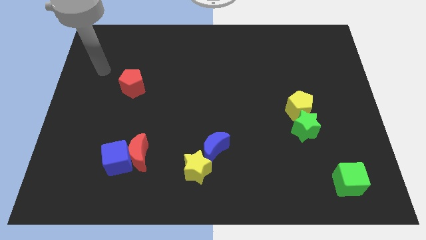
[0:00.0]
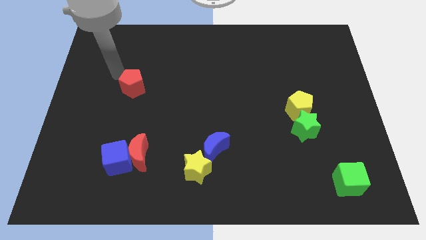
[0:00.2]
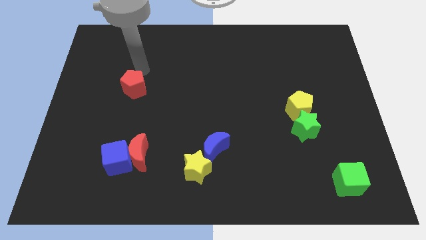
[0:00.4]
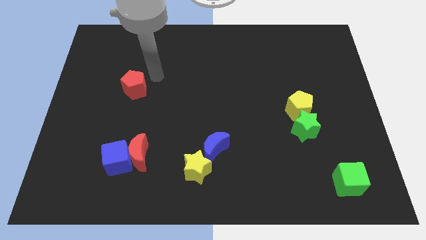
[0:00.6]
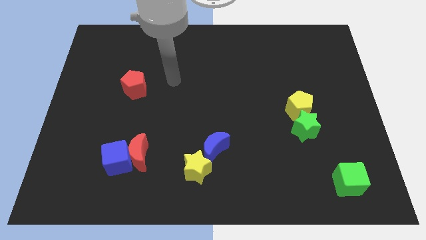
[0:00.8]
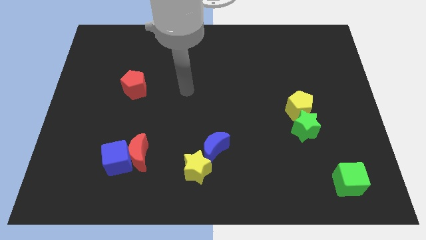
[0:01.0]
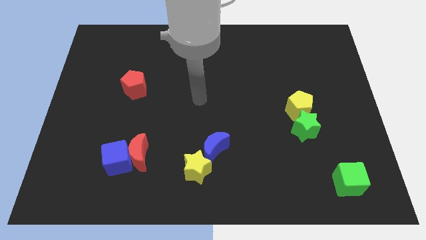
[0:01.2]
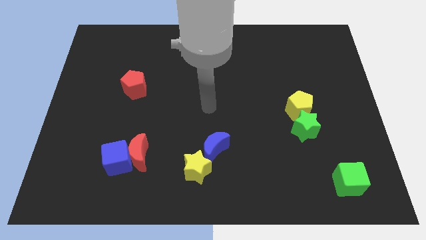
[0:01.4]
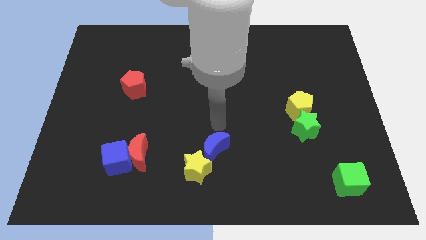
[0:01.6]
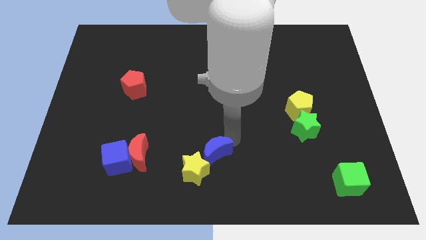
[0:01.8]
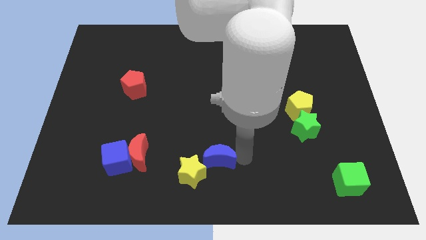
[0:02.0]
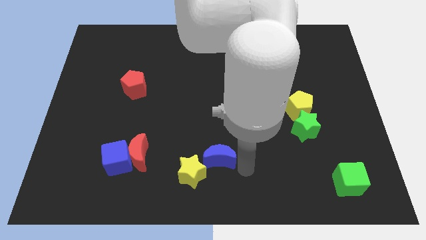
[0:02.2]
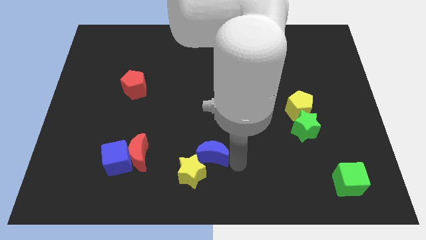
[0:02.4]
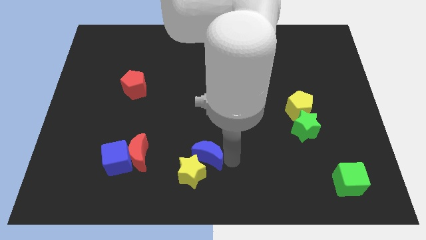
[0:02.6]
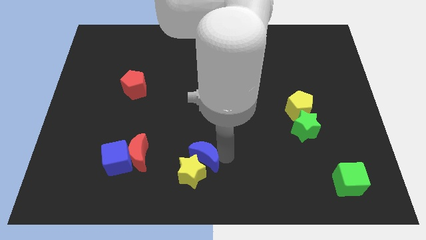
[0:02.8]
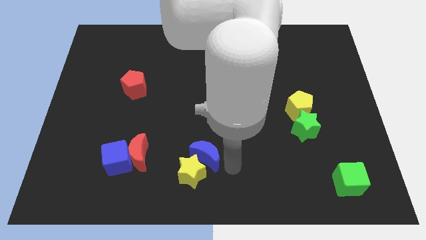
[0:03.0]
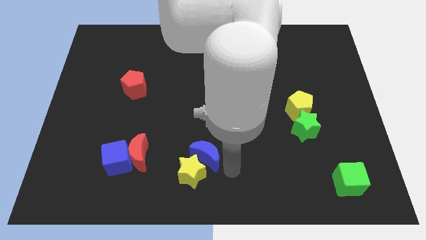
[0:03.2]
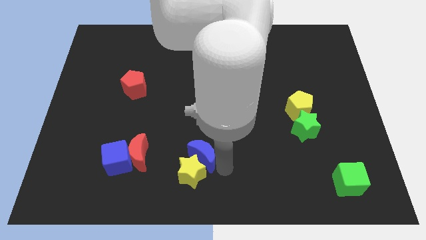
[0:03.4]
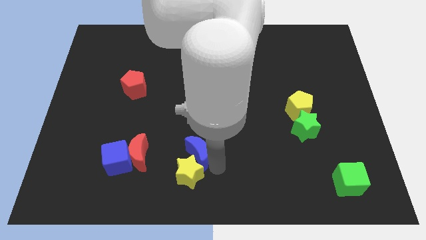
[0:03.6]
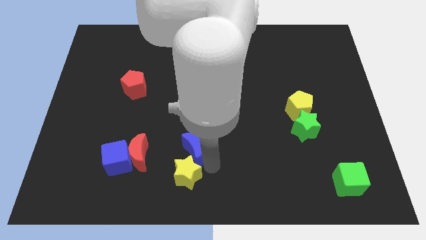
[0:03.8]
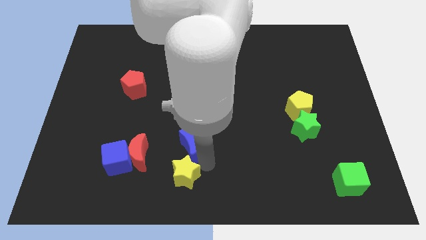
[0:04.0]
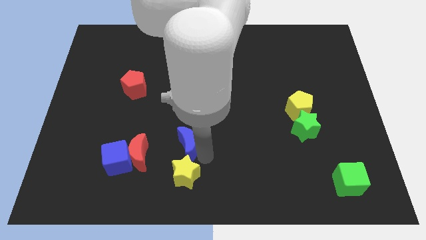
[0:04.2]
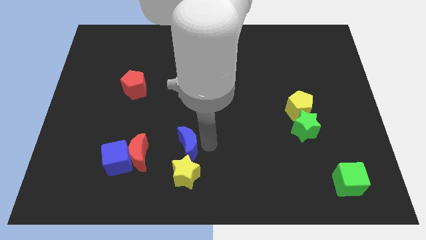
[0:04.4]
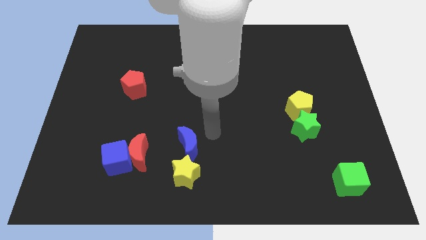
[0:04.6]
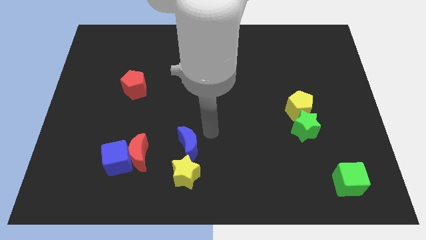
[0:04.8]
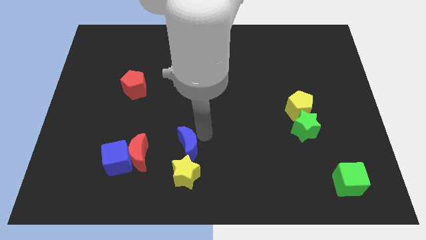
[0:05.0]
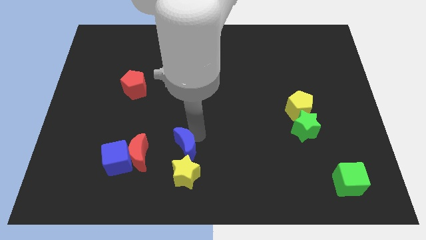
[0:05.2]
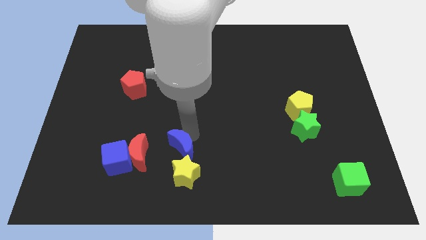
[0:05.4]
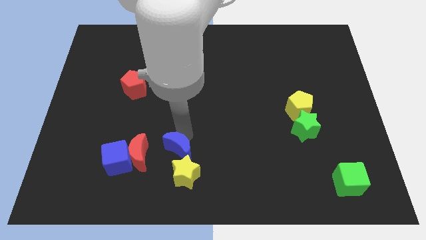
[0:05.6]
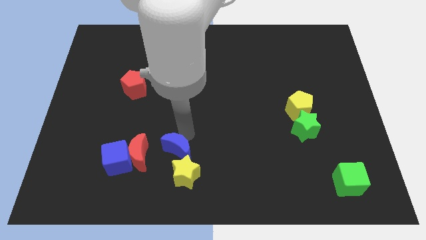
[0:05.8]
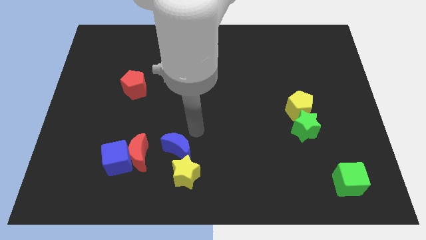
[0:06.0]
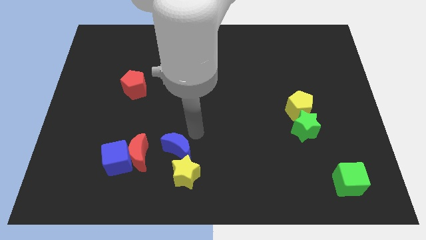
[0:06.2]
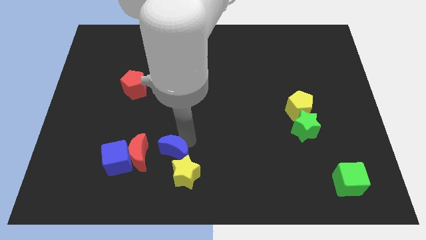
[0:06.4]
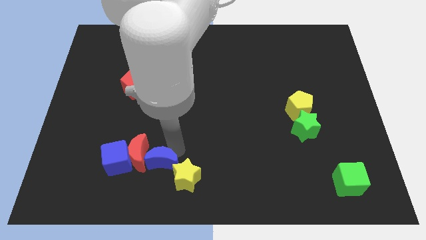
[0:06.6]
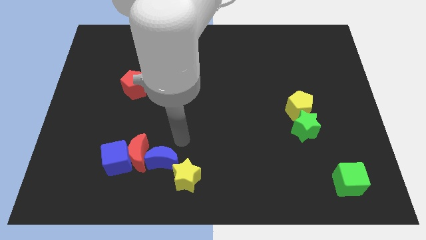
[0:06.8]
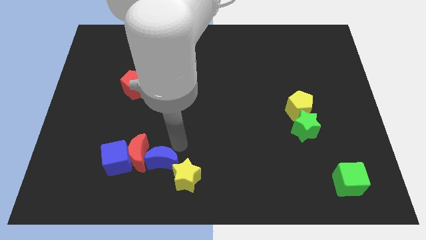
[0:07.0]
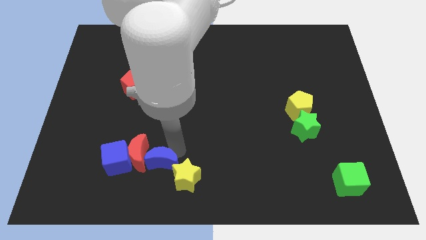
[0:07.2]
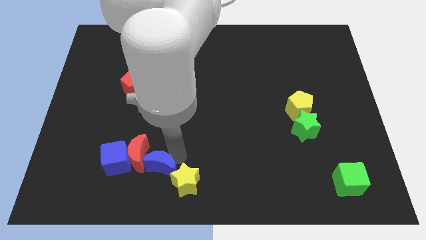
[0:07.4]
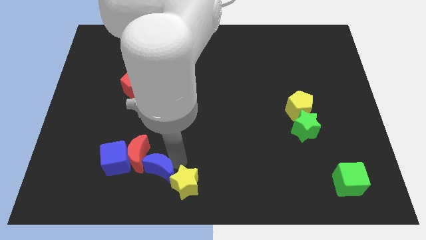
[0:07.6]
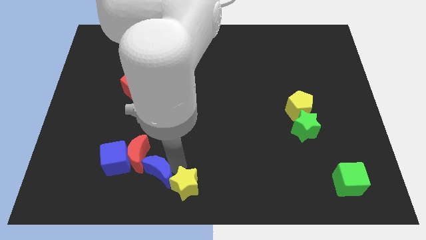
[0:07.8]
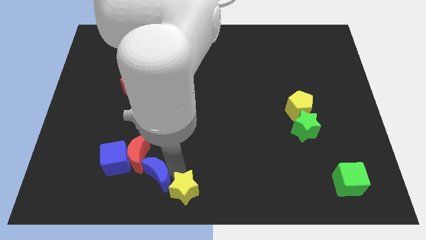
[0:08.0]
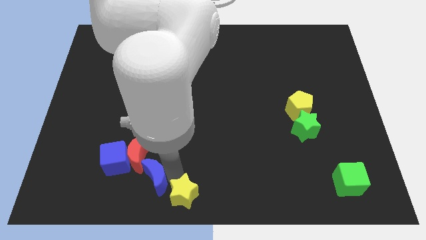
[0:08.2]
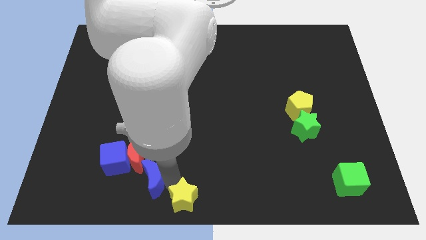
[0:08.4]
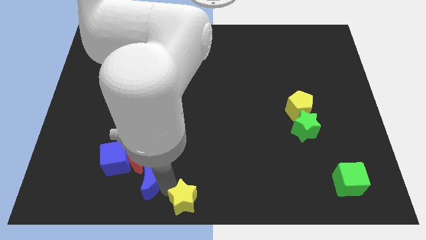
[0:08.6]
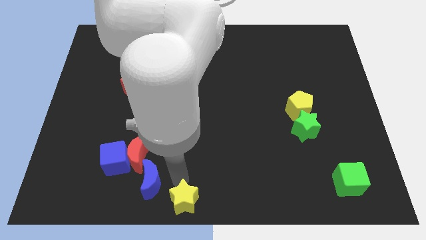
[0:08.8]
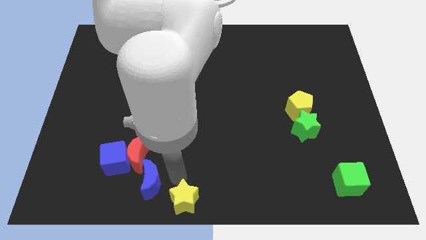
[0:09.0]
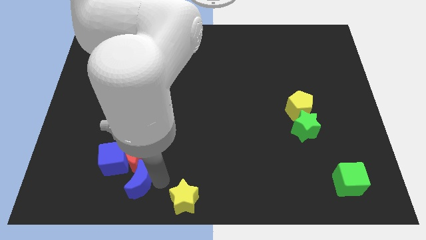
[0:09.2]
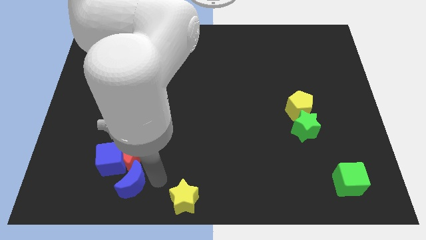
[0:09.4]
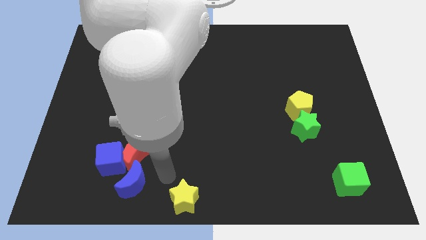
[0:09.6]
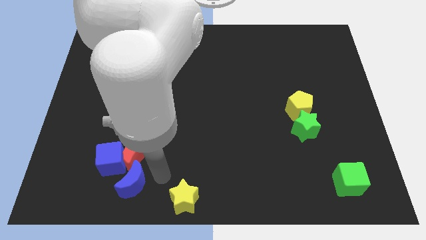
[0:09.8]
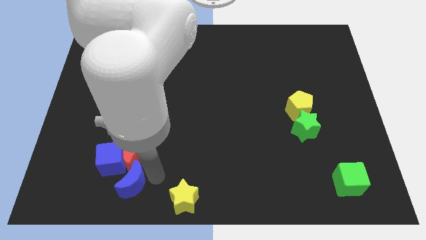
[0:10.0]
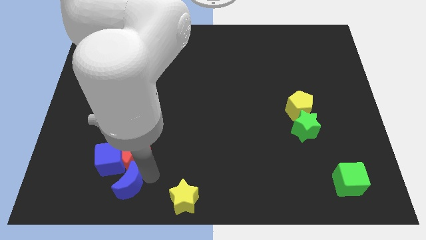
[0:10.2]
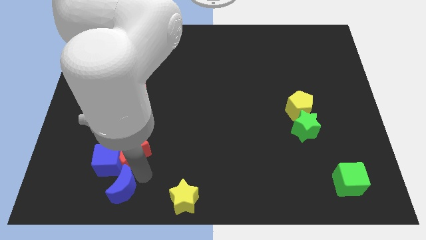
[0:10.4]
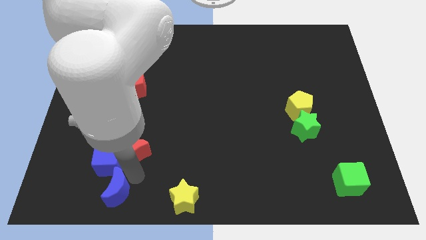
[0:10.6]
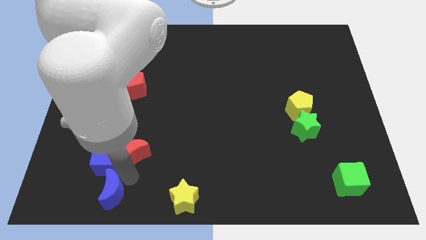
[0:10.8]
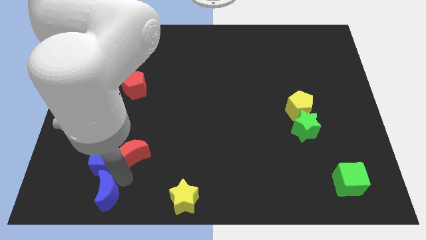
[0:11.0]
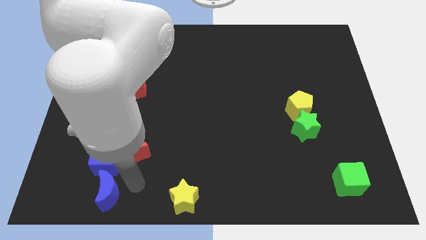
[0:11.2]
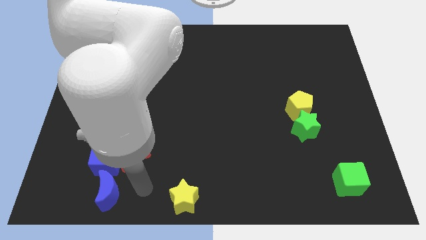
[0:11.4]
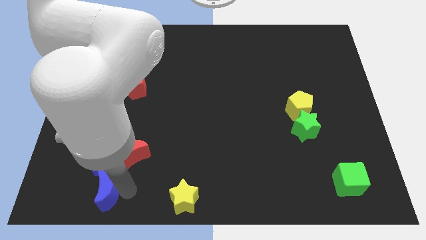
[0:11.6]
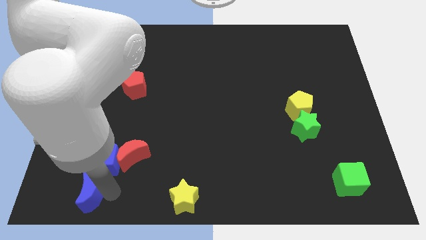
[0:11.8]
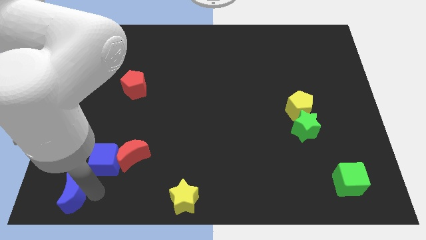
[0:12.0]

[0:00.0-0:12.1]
push the blue moon to the bottom left
